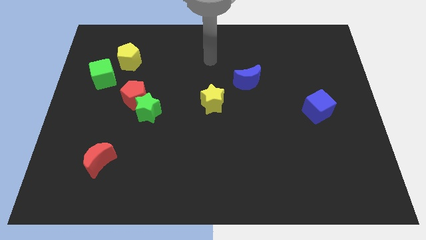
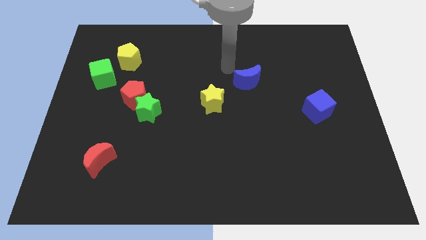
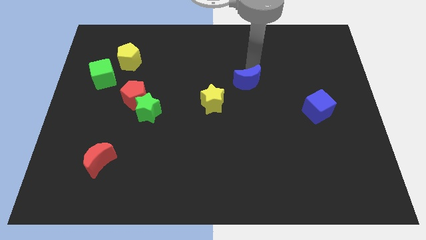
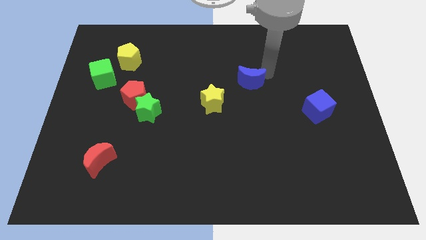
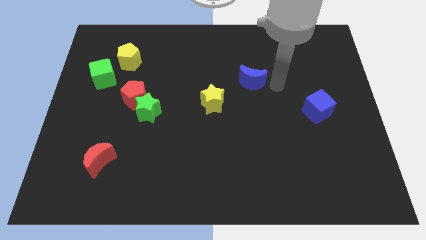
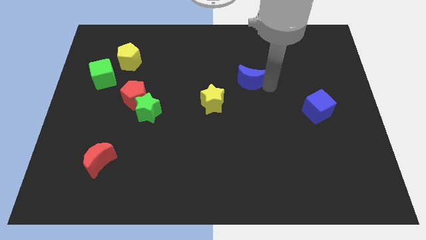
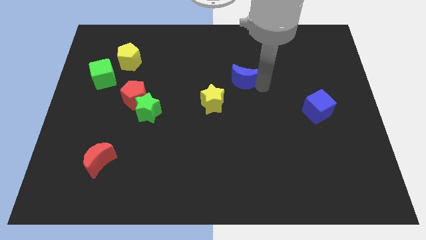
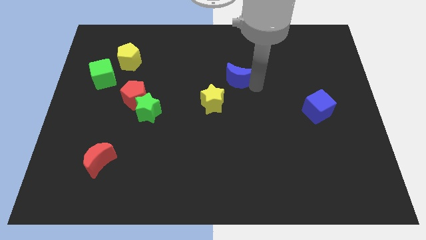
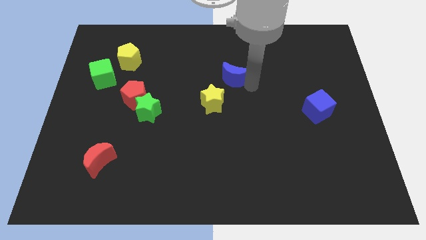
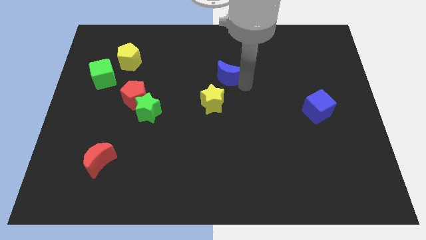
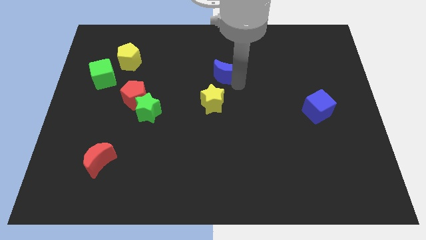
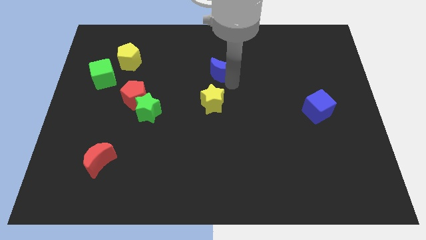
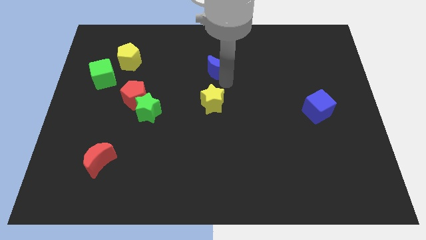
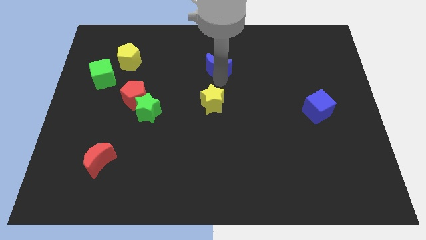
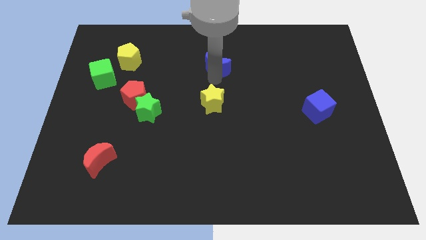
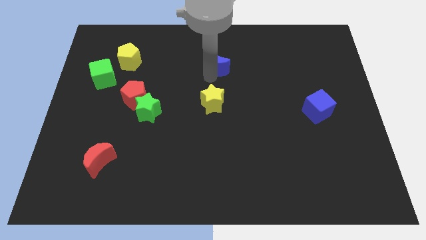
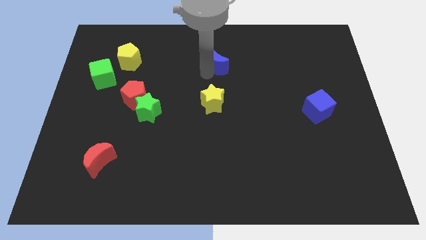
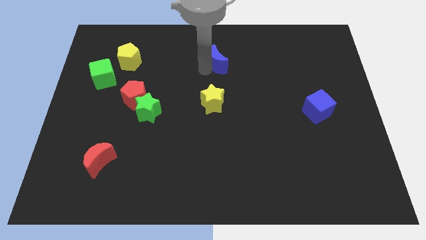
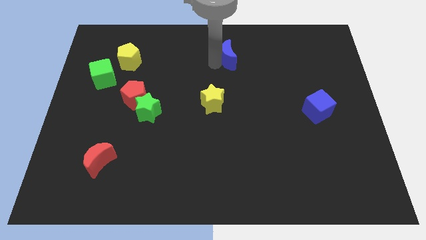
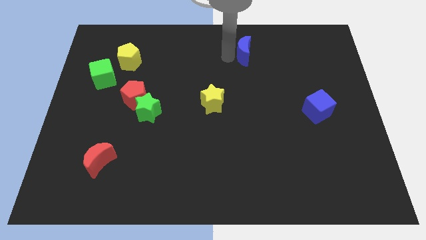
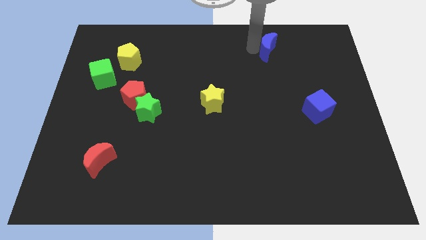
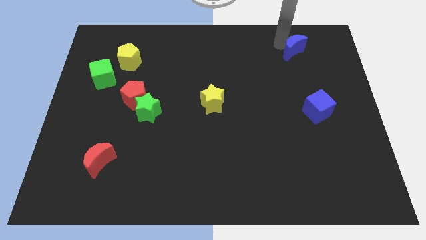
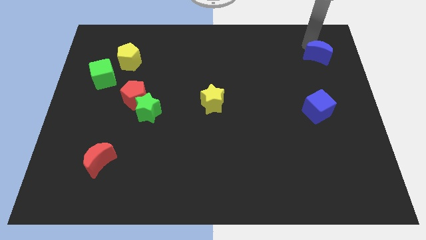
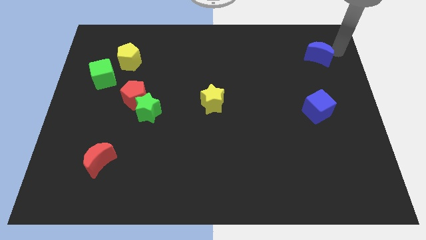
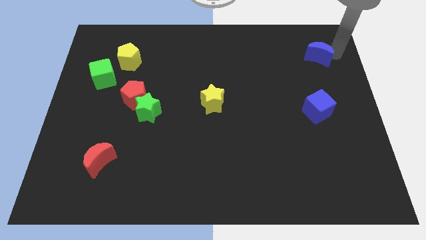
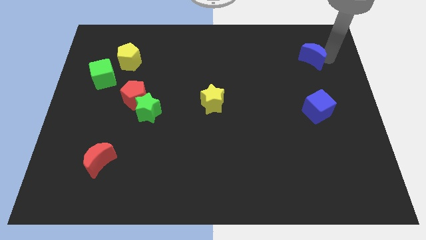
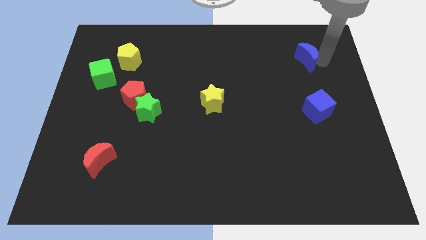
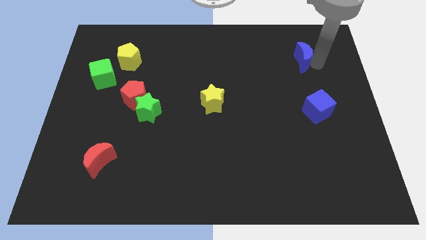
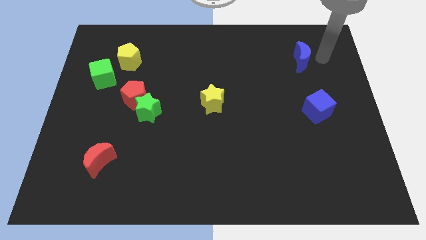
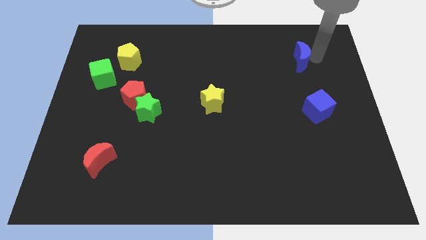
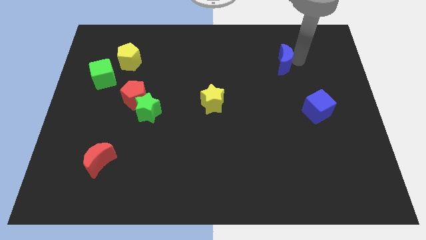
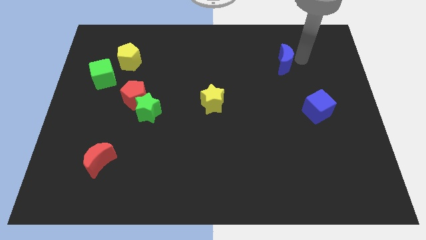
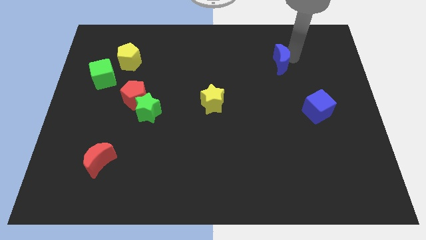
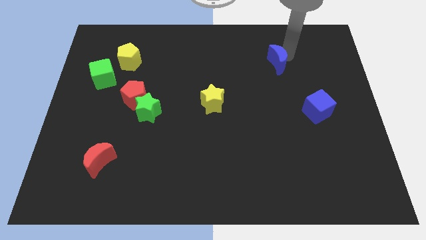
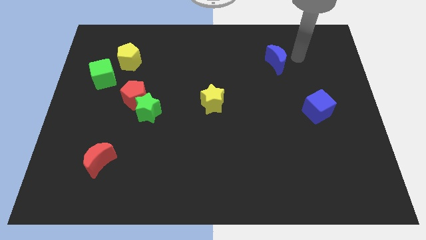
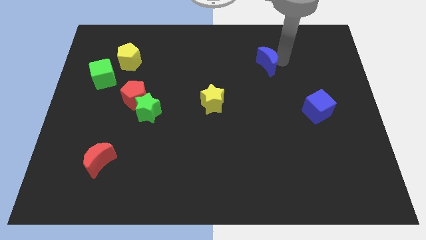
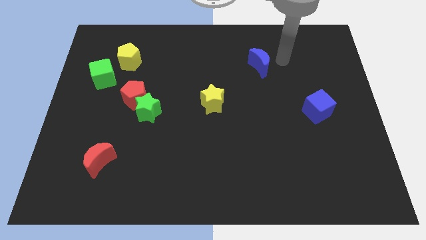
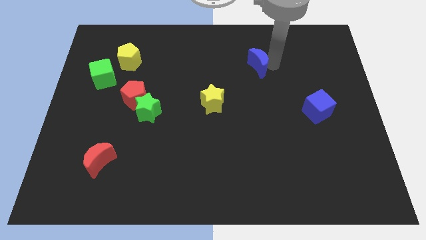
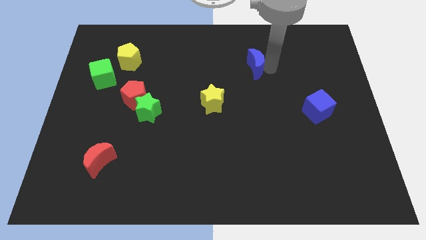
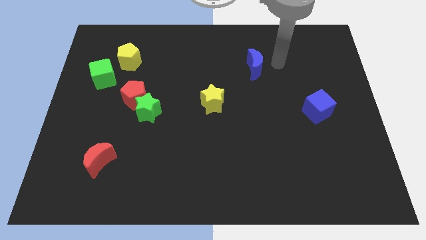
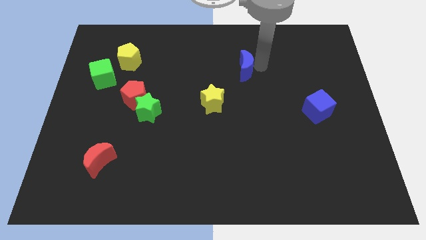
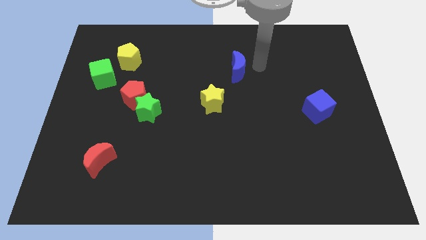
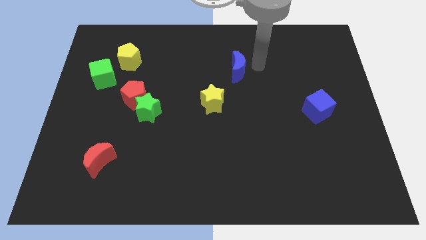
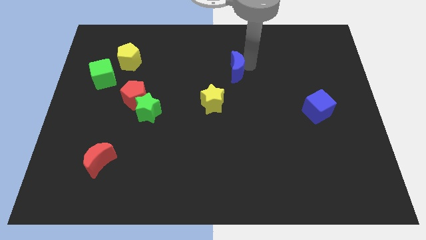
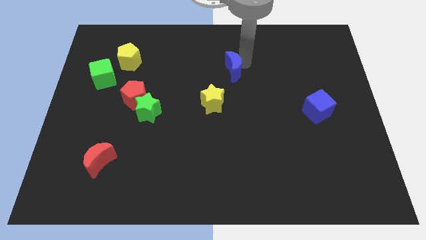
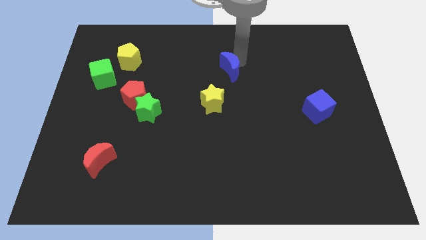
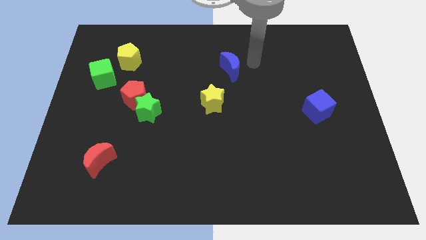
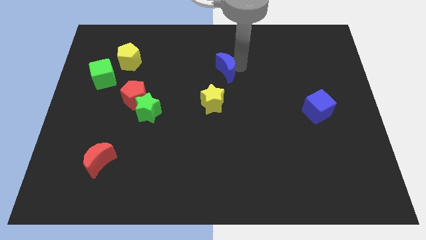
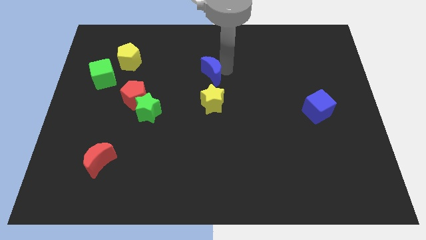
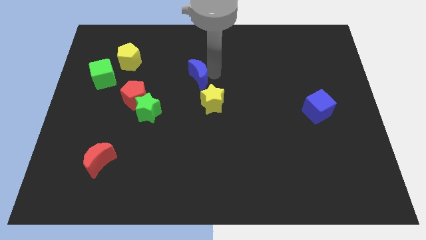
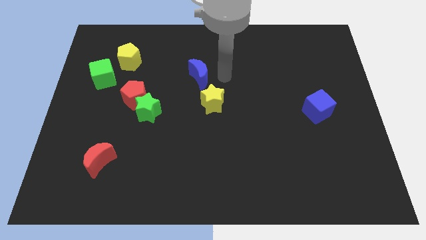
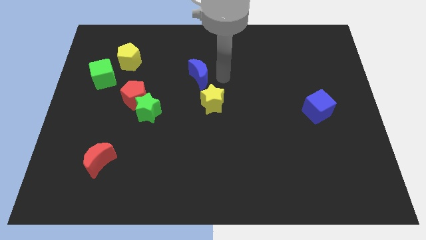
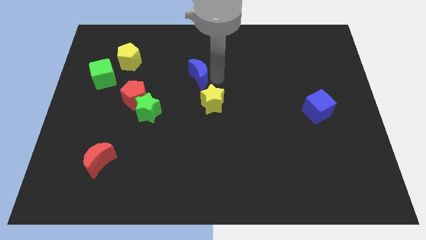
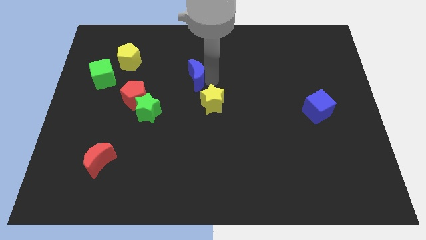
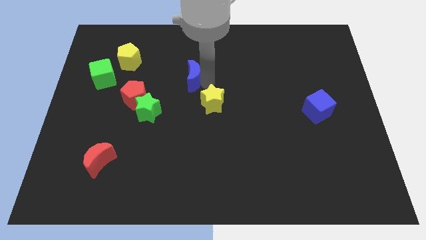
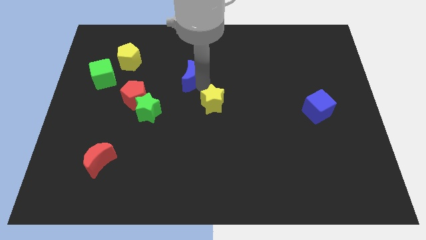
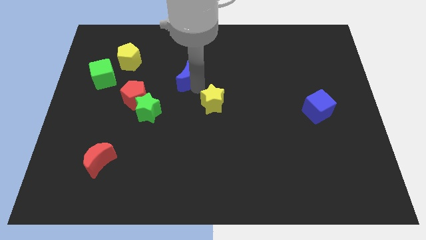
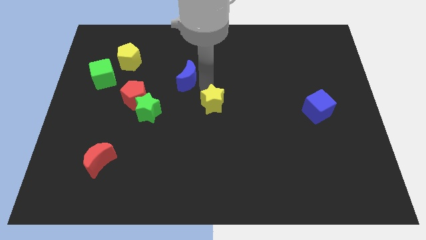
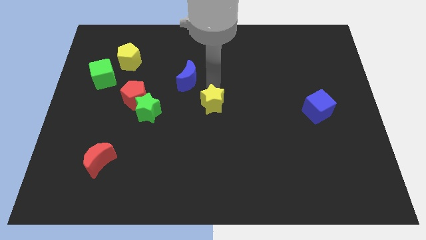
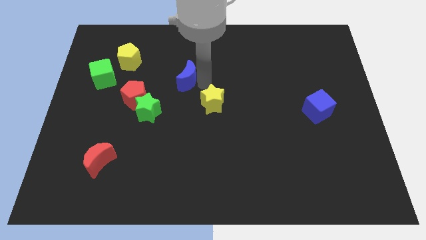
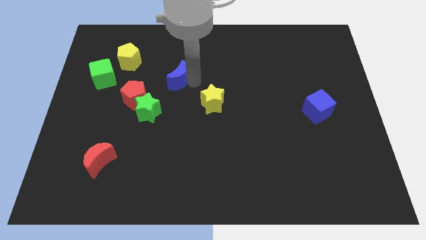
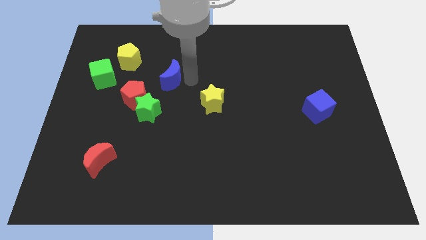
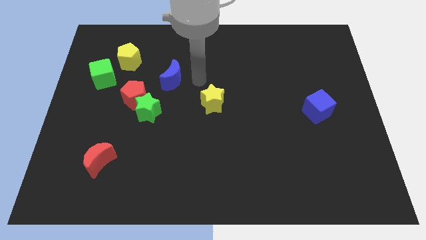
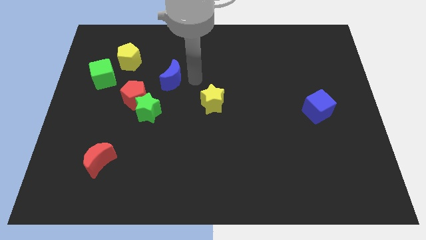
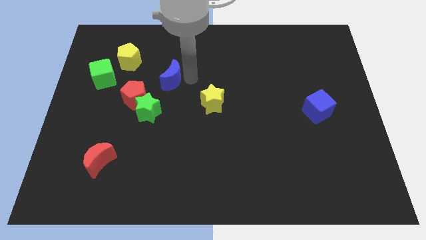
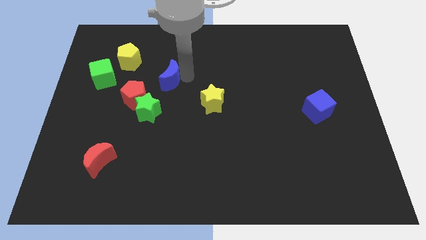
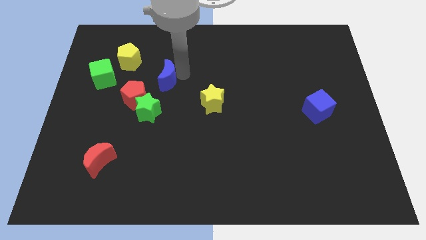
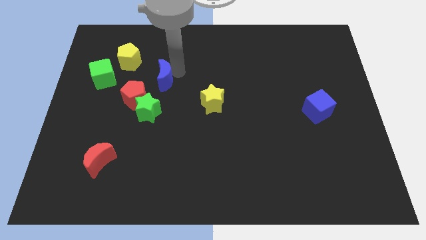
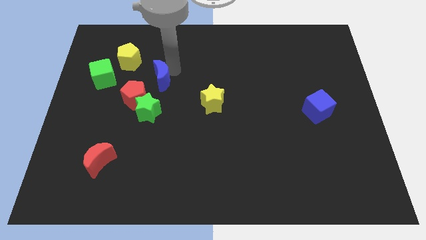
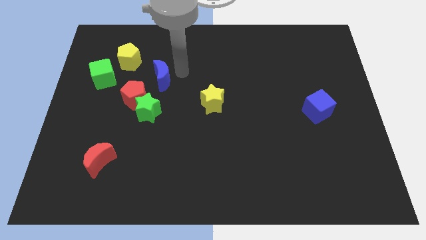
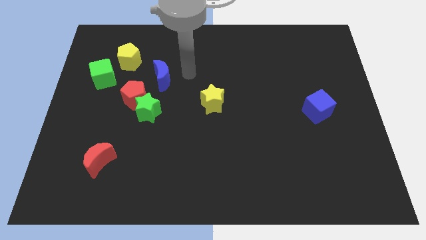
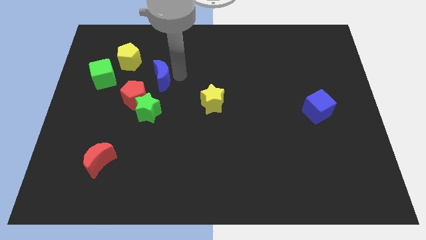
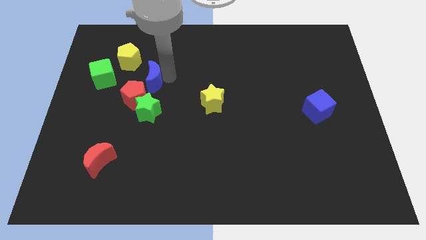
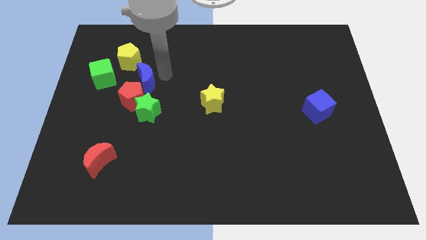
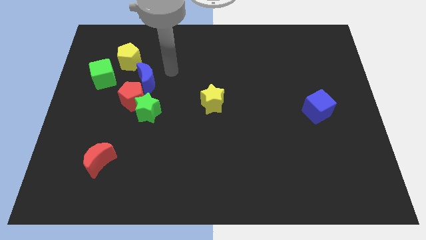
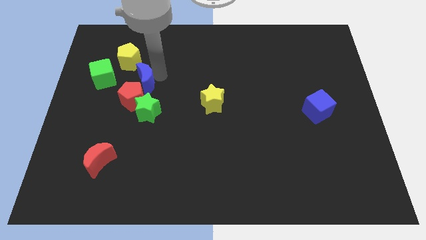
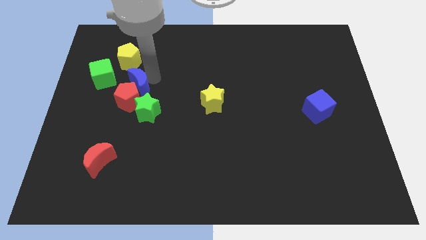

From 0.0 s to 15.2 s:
move the blue moon to the bottom of the yellow pentagon

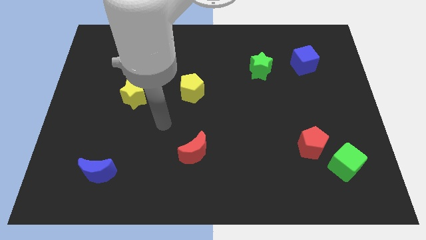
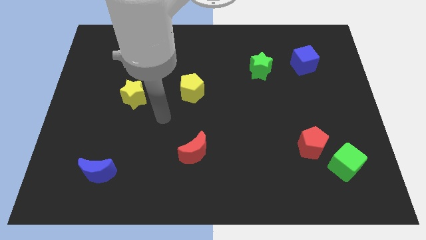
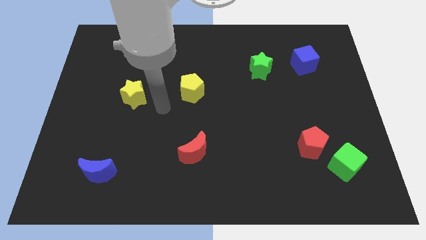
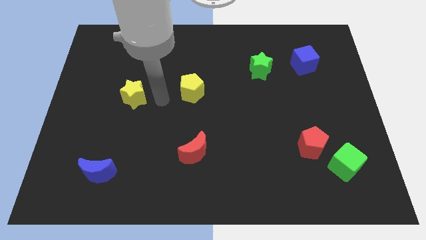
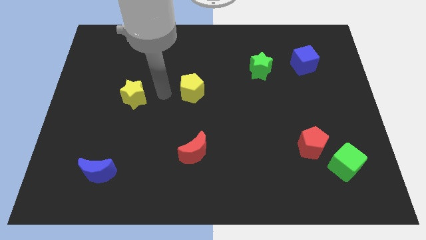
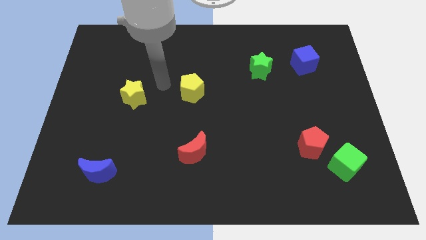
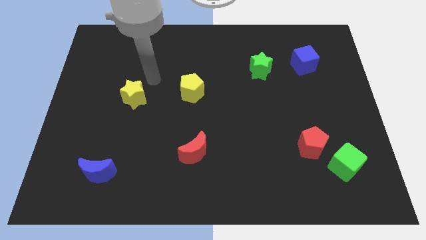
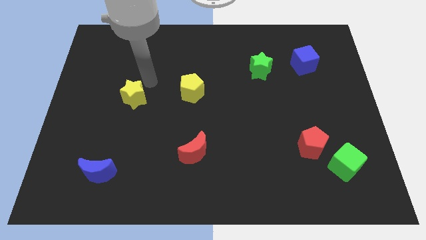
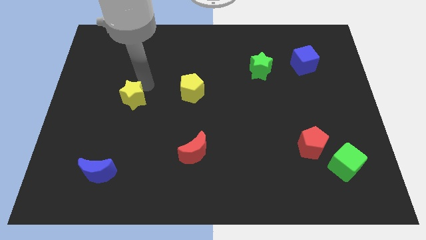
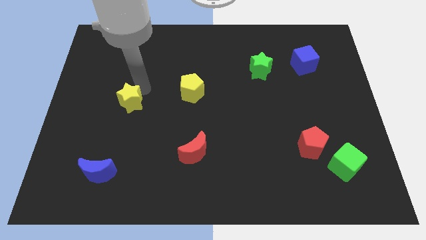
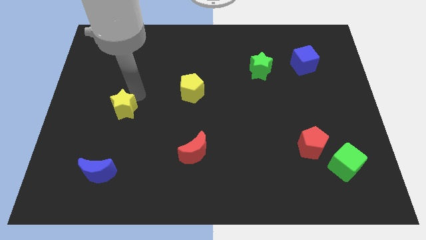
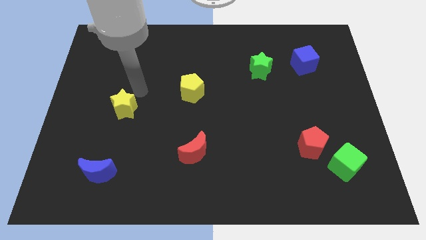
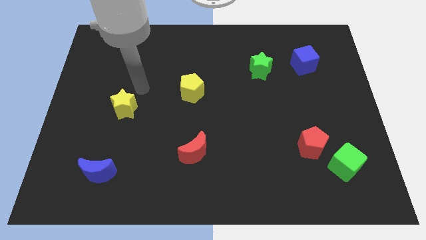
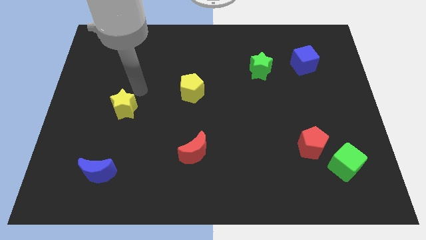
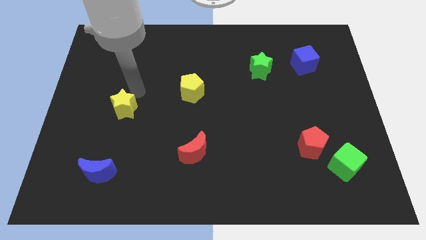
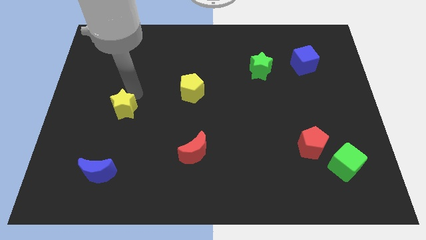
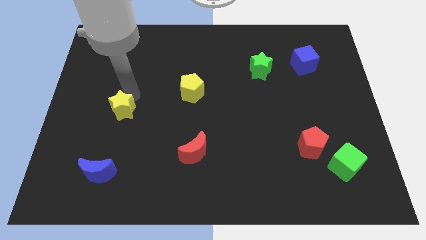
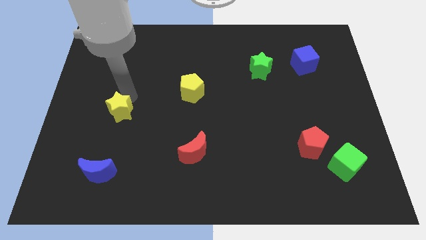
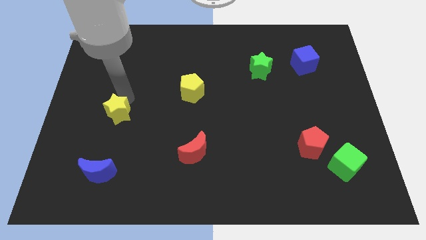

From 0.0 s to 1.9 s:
move the yellow star to the top side of the blue moon
